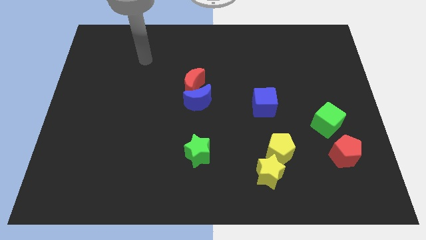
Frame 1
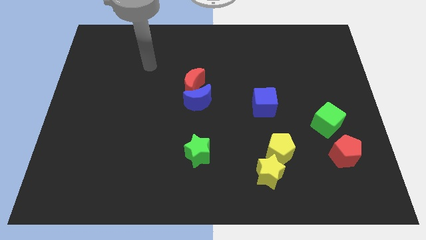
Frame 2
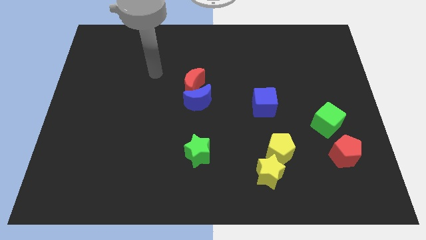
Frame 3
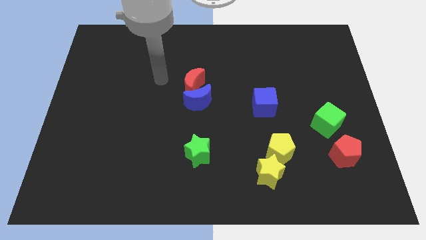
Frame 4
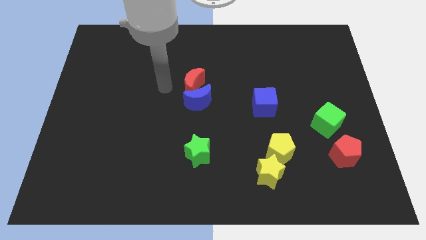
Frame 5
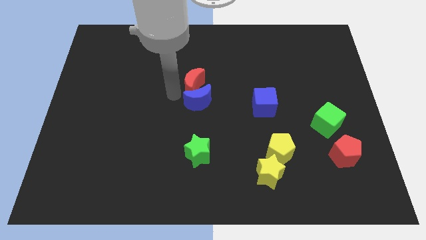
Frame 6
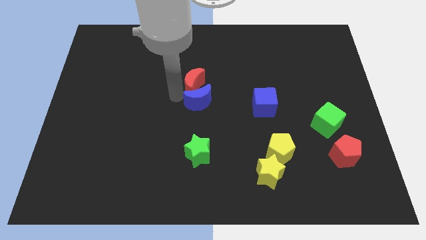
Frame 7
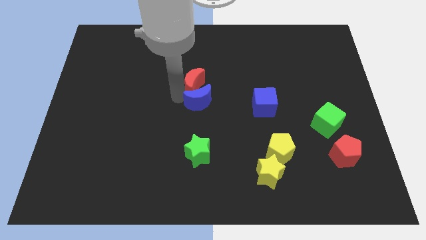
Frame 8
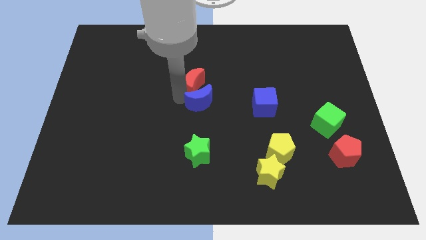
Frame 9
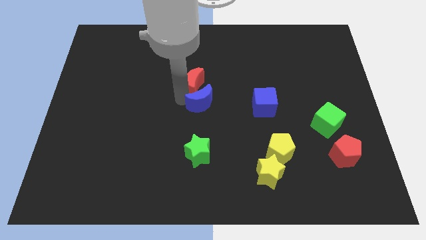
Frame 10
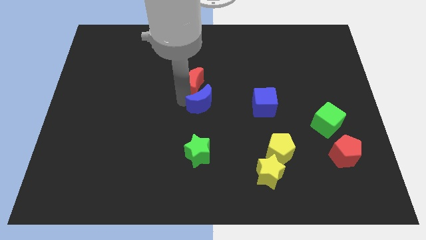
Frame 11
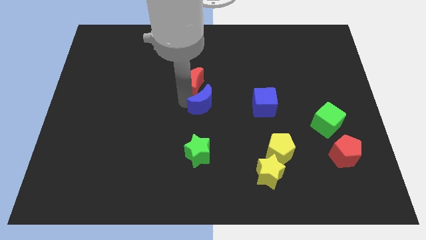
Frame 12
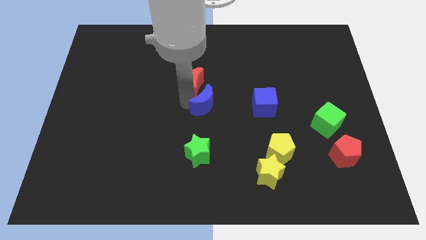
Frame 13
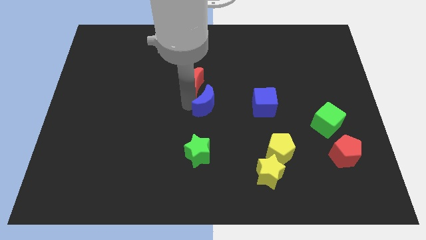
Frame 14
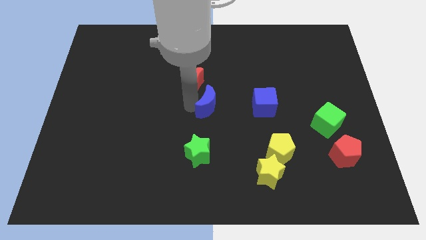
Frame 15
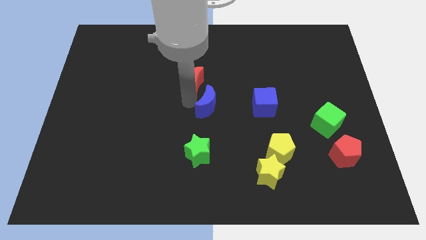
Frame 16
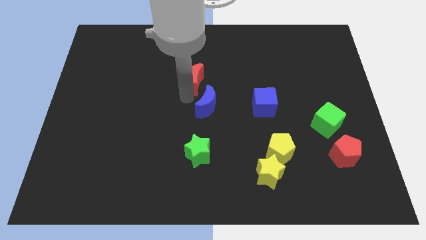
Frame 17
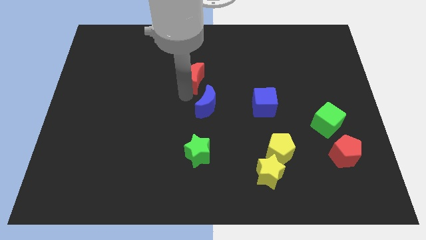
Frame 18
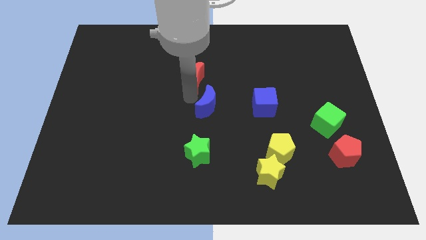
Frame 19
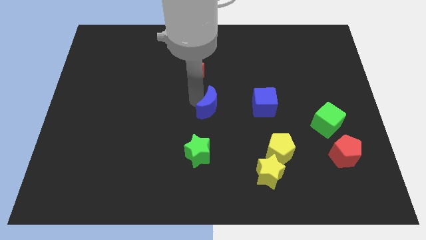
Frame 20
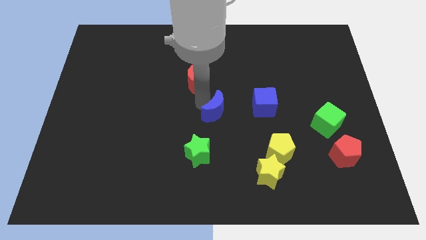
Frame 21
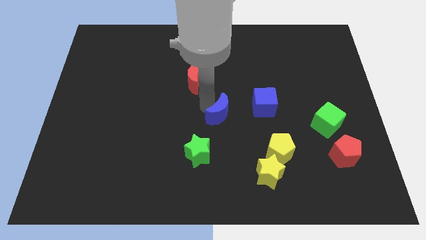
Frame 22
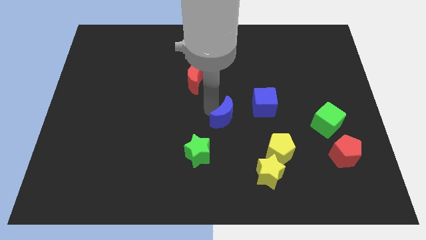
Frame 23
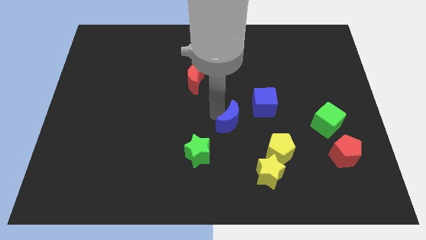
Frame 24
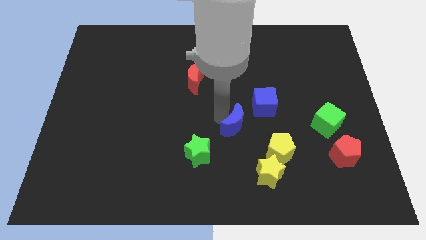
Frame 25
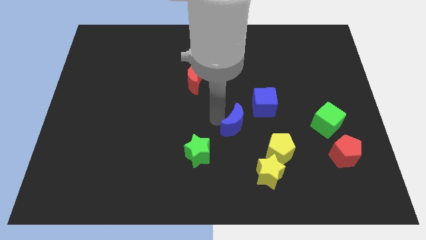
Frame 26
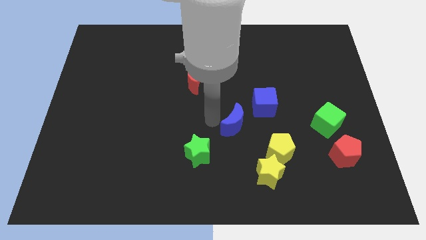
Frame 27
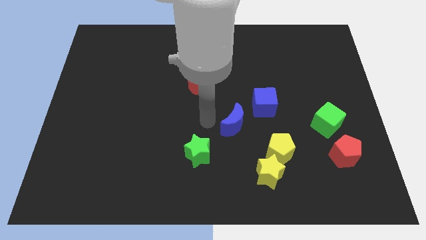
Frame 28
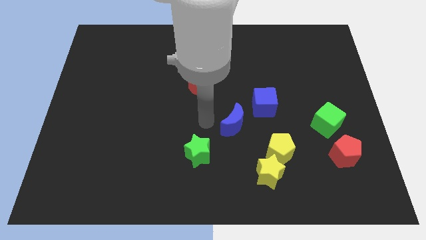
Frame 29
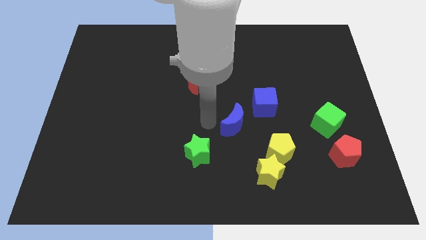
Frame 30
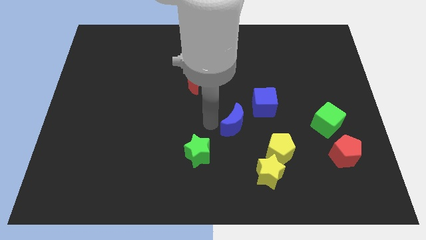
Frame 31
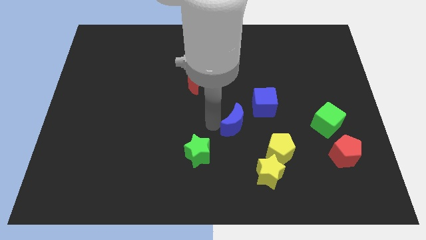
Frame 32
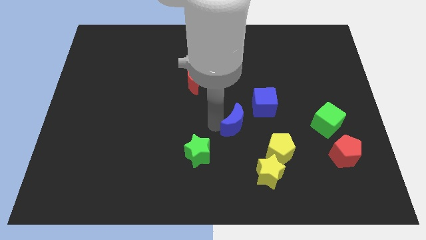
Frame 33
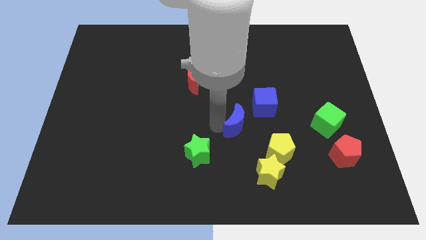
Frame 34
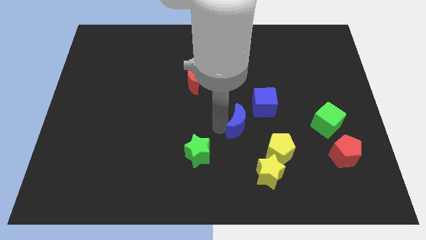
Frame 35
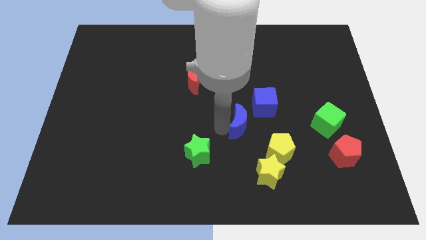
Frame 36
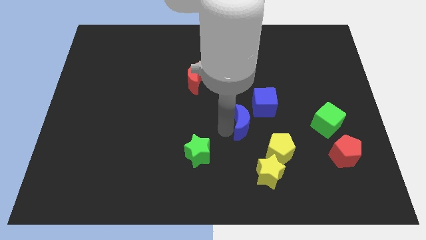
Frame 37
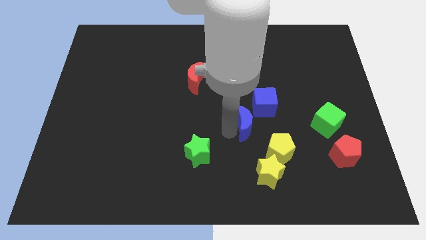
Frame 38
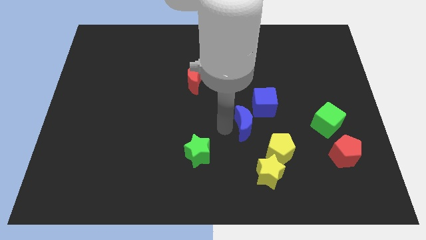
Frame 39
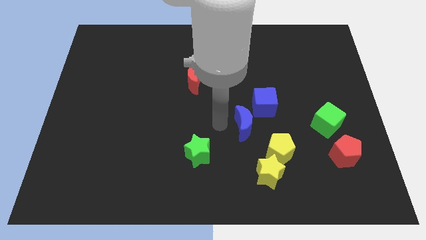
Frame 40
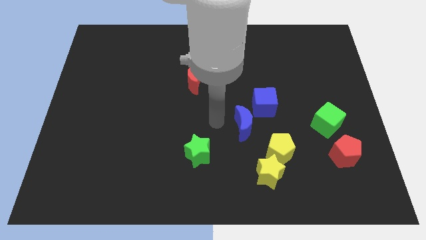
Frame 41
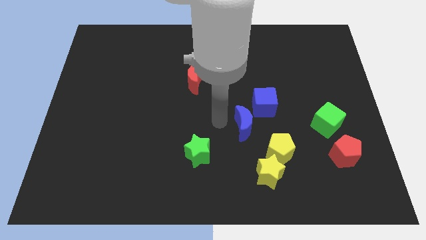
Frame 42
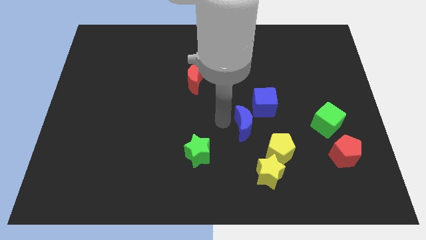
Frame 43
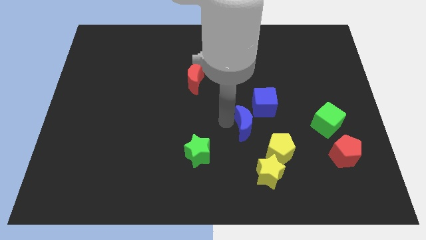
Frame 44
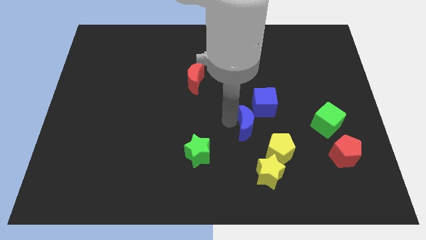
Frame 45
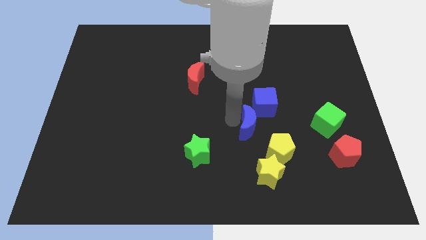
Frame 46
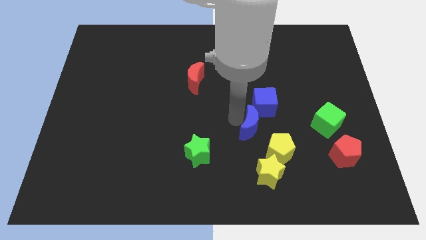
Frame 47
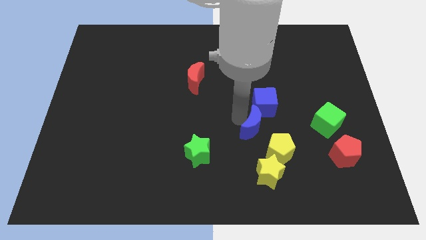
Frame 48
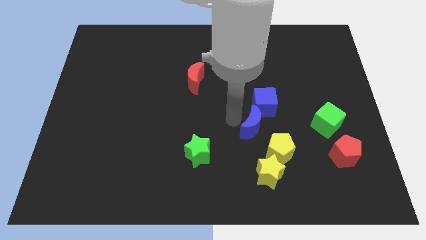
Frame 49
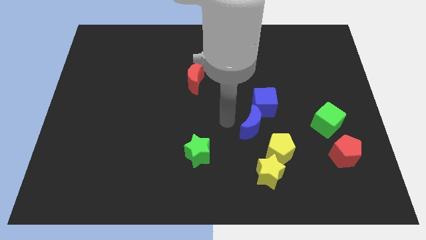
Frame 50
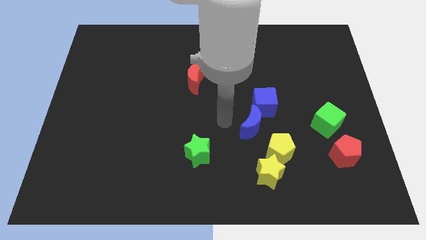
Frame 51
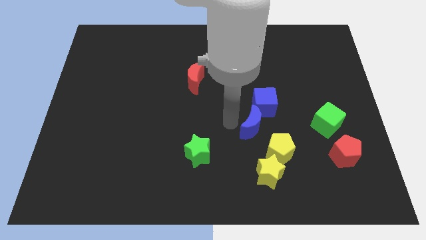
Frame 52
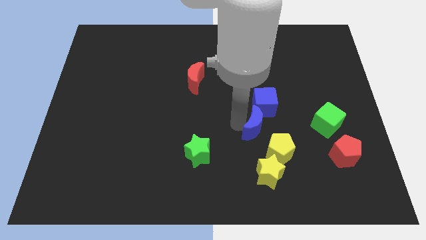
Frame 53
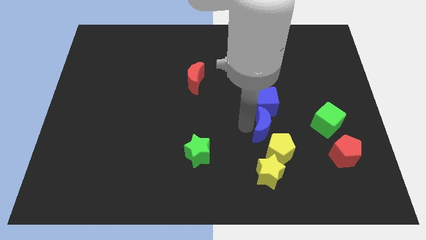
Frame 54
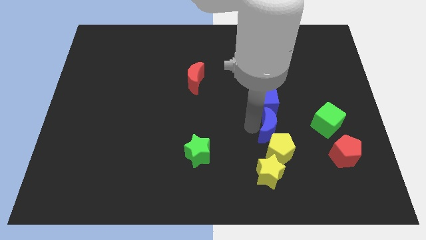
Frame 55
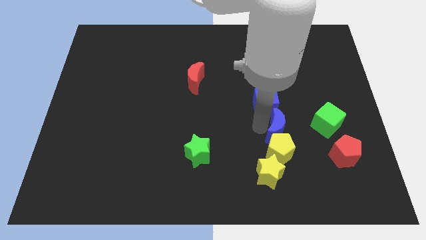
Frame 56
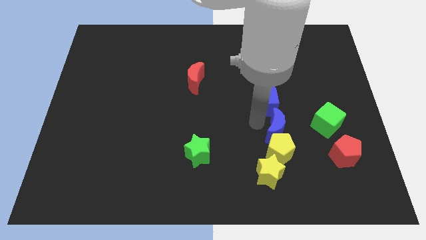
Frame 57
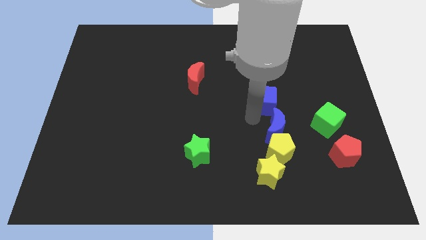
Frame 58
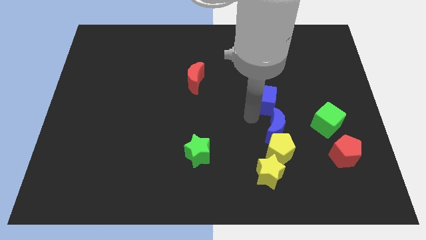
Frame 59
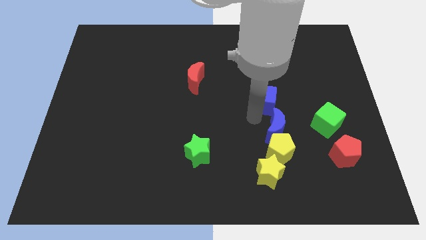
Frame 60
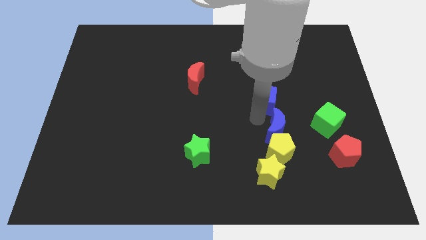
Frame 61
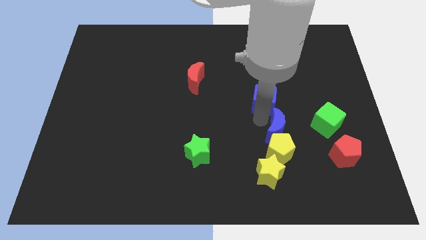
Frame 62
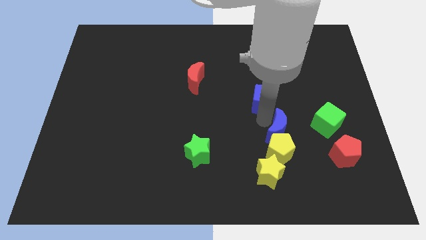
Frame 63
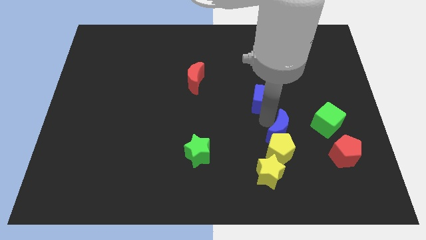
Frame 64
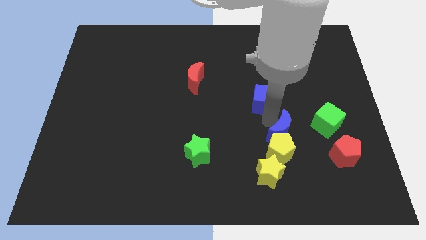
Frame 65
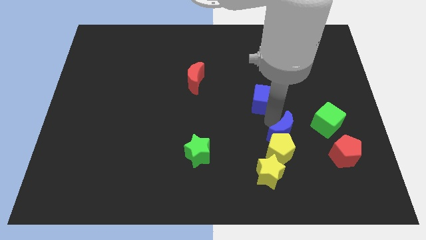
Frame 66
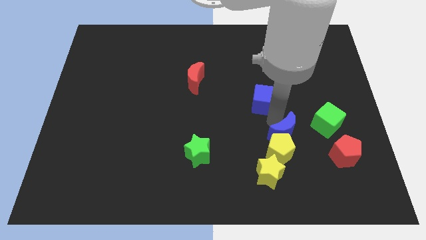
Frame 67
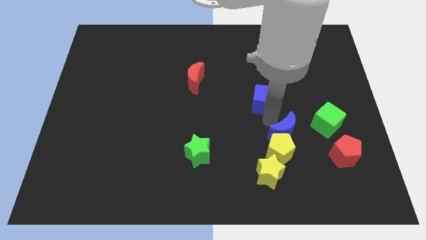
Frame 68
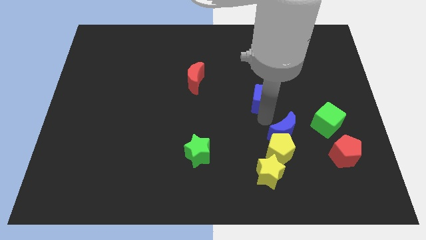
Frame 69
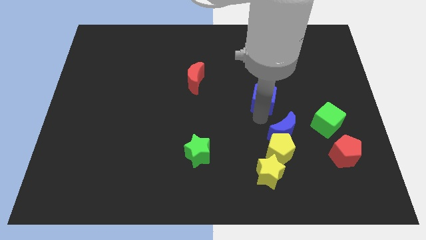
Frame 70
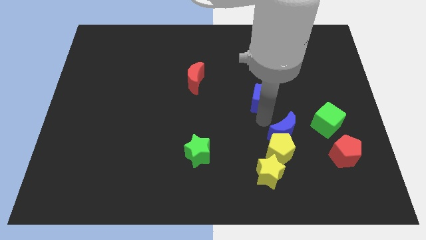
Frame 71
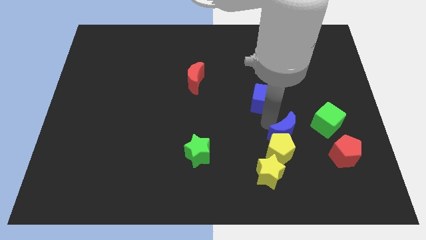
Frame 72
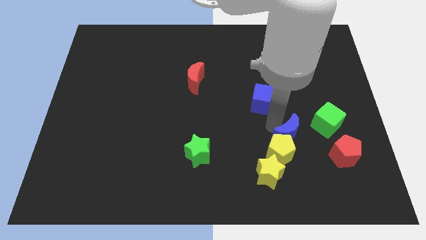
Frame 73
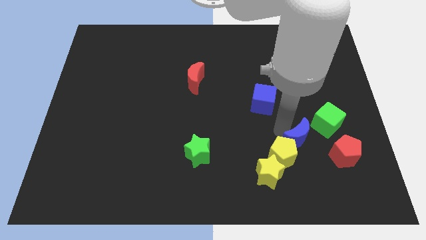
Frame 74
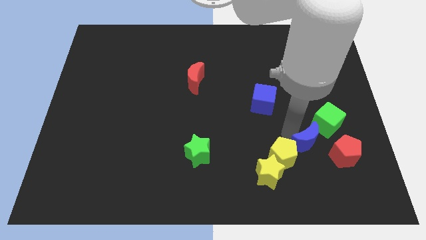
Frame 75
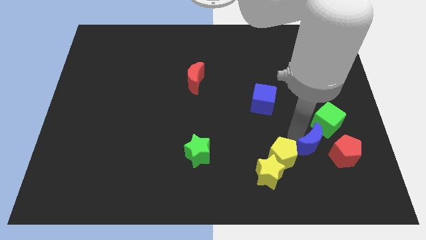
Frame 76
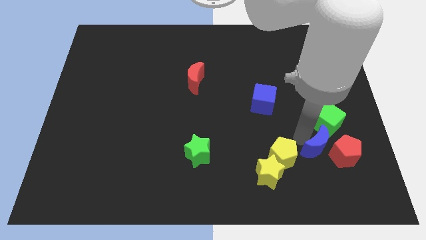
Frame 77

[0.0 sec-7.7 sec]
put the blue moon towards the red pentagon

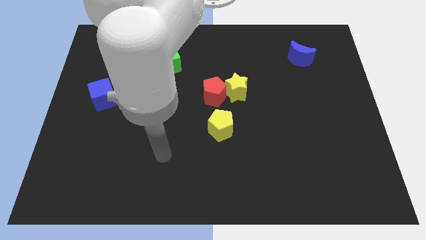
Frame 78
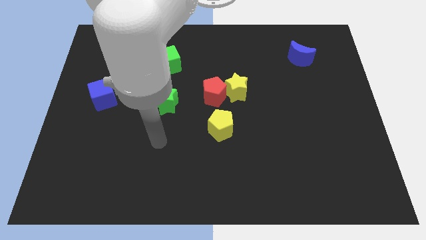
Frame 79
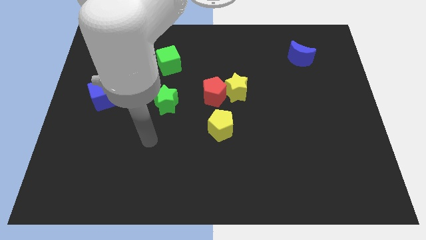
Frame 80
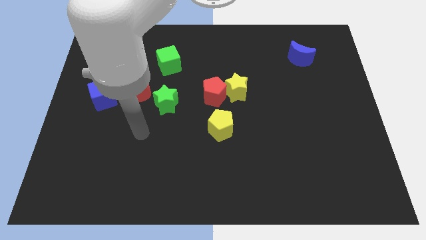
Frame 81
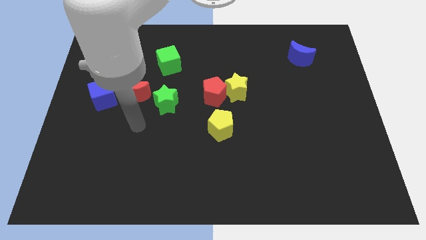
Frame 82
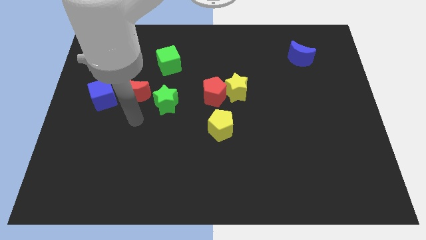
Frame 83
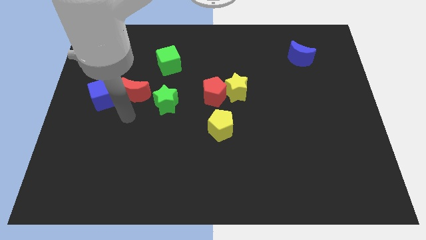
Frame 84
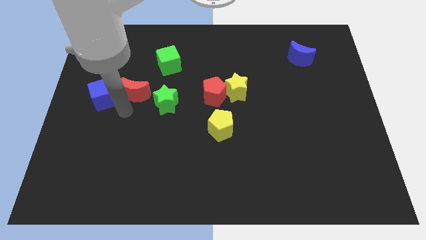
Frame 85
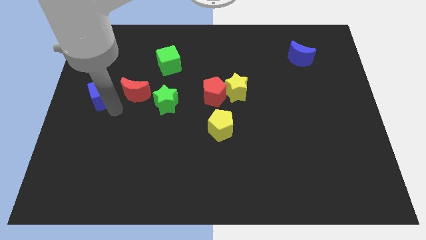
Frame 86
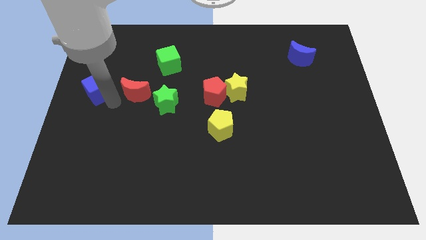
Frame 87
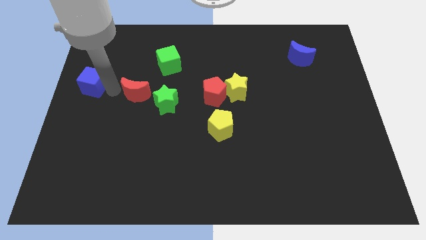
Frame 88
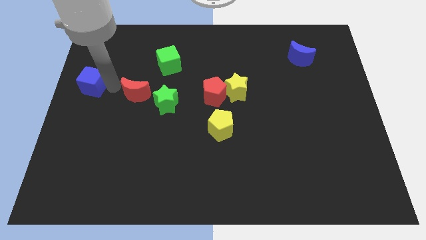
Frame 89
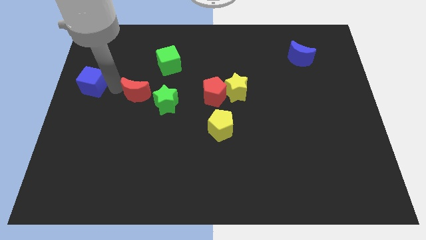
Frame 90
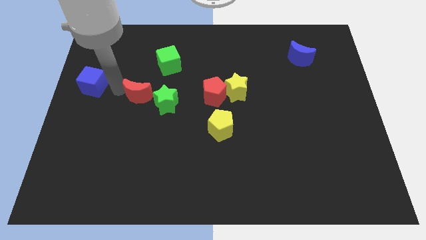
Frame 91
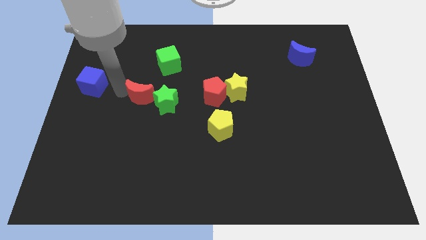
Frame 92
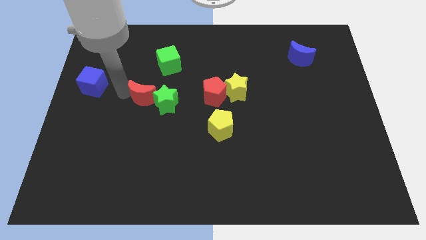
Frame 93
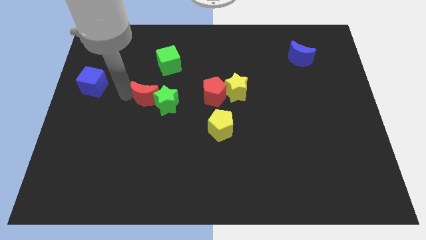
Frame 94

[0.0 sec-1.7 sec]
move the red moon to the green star
